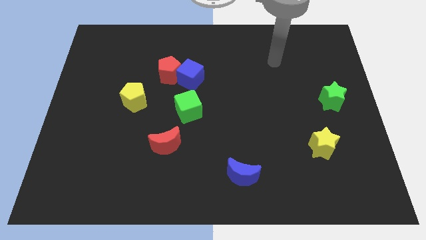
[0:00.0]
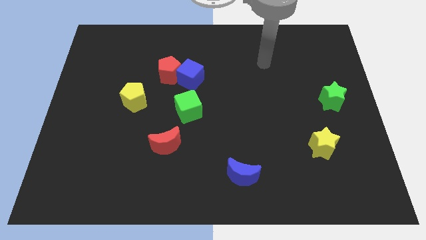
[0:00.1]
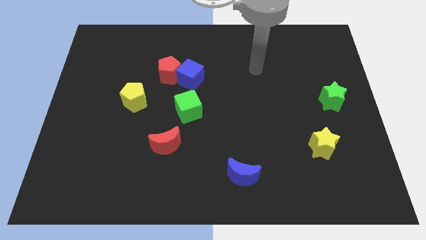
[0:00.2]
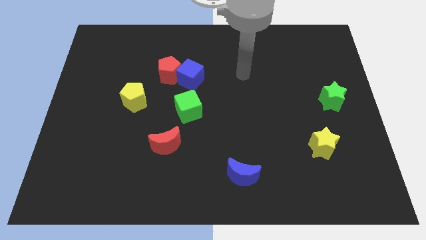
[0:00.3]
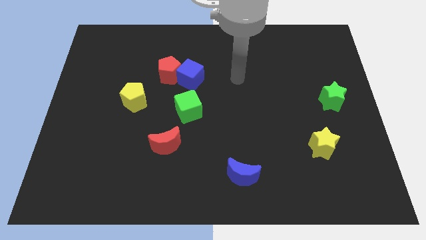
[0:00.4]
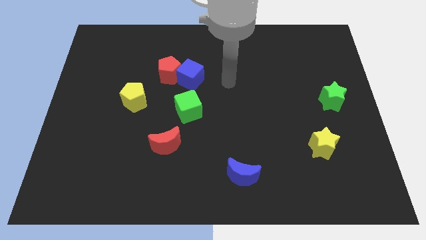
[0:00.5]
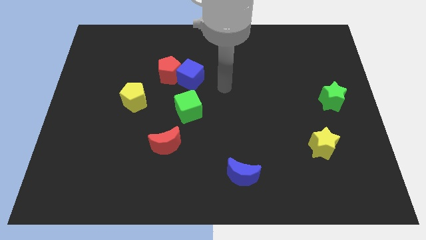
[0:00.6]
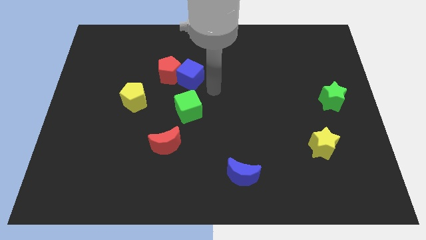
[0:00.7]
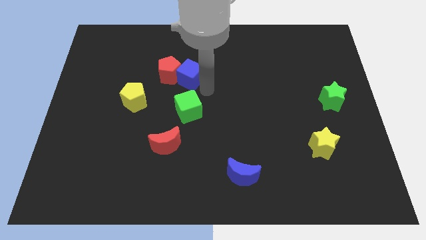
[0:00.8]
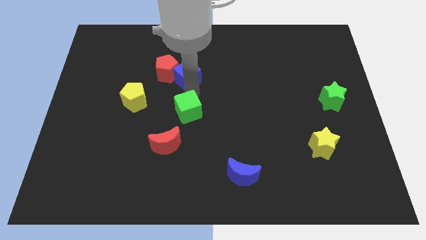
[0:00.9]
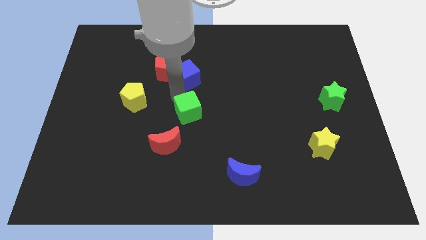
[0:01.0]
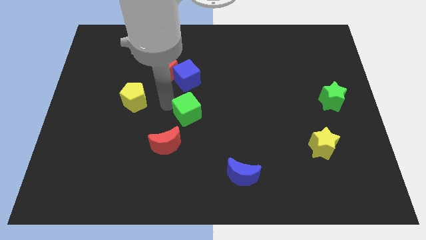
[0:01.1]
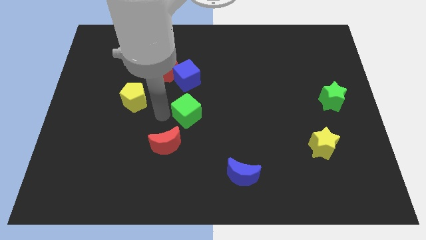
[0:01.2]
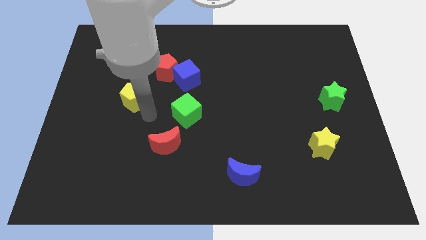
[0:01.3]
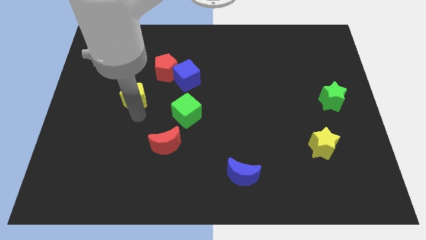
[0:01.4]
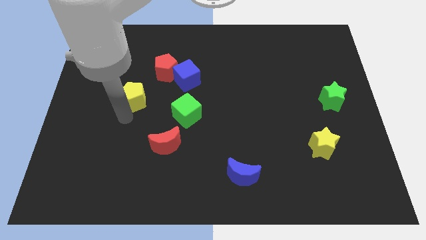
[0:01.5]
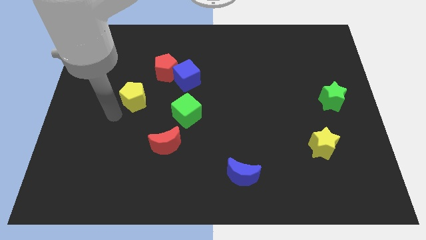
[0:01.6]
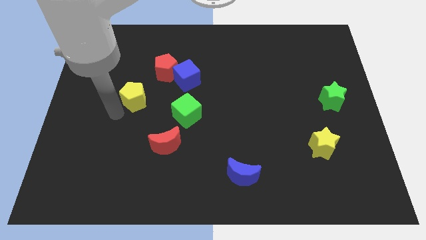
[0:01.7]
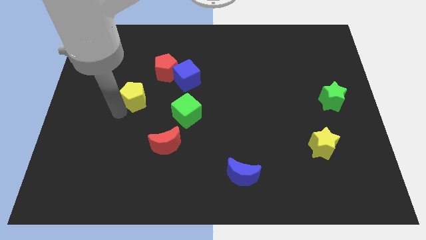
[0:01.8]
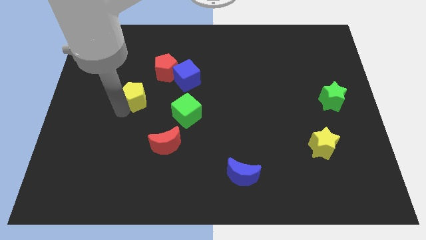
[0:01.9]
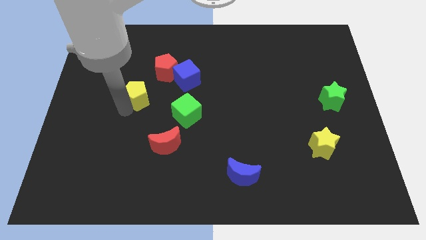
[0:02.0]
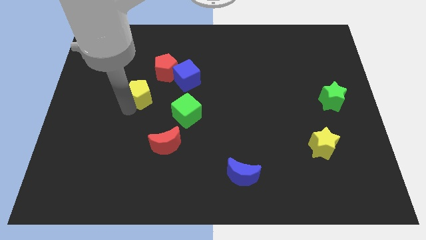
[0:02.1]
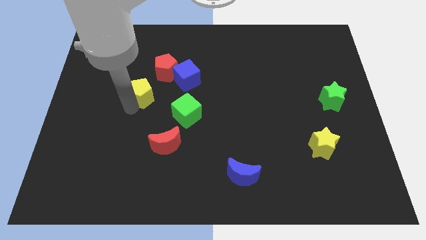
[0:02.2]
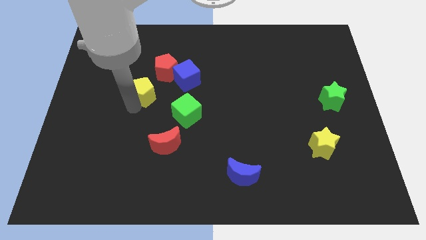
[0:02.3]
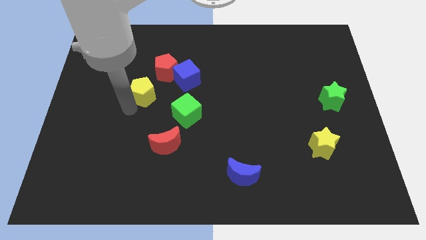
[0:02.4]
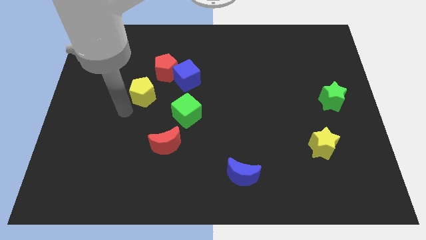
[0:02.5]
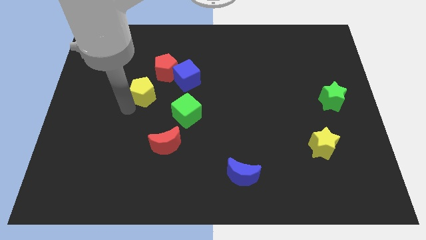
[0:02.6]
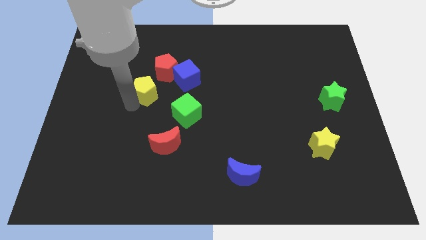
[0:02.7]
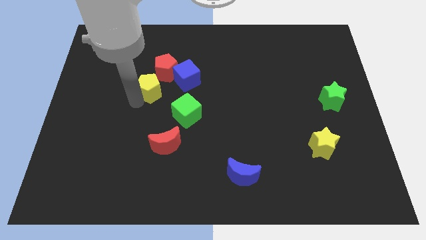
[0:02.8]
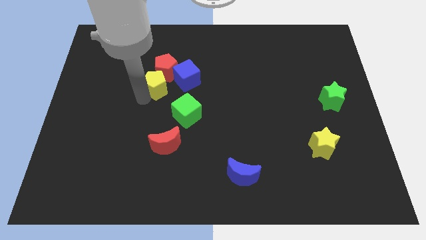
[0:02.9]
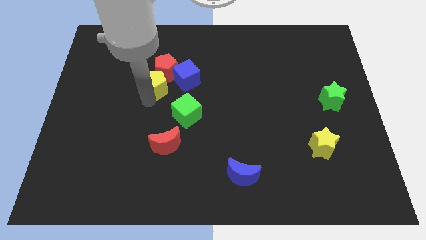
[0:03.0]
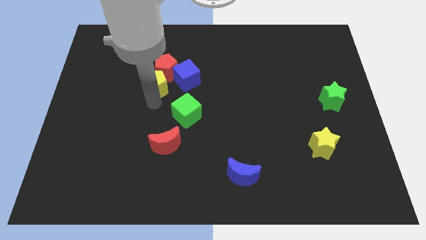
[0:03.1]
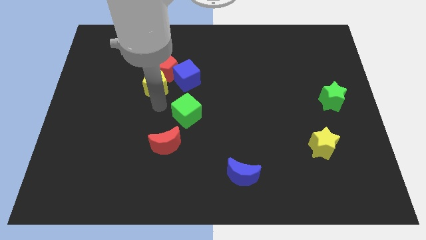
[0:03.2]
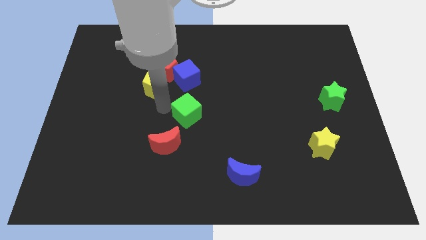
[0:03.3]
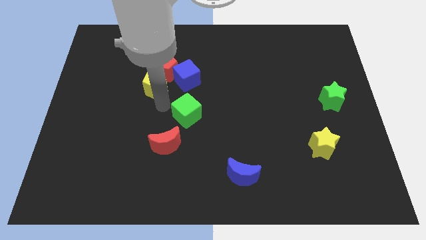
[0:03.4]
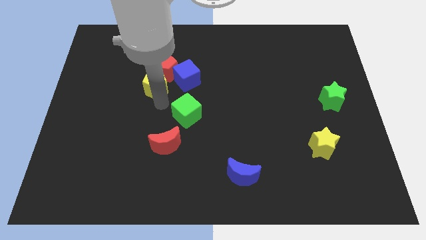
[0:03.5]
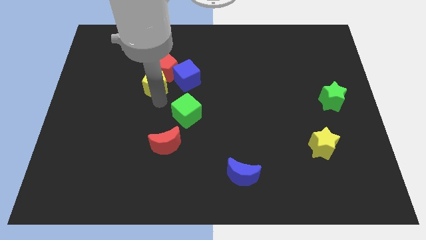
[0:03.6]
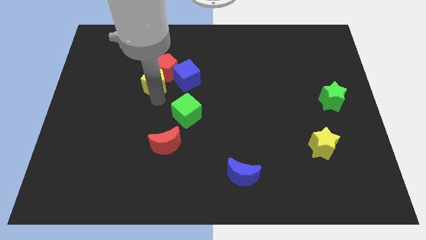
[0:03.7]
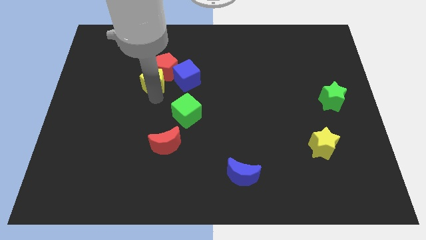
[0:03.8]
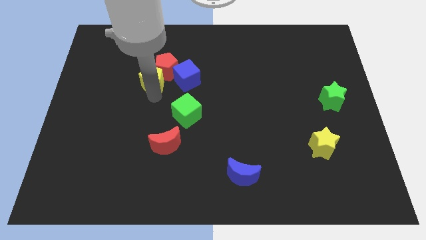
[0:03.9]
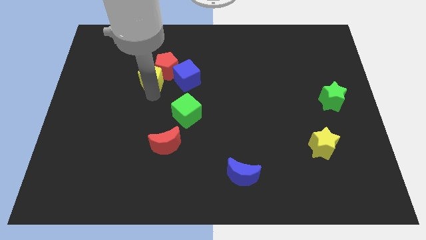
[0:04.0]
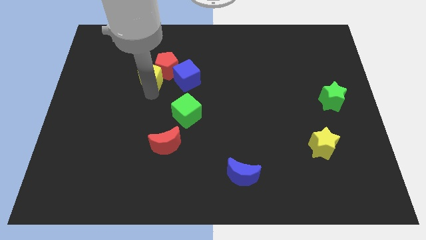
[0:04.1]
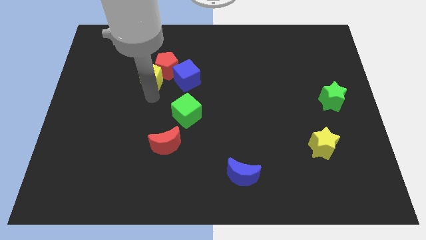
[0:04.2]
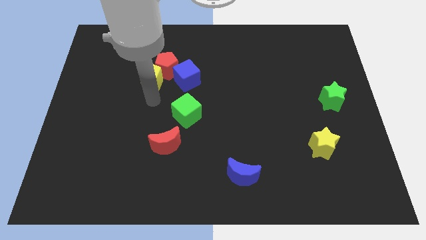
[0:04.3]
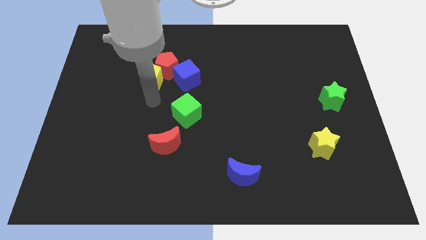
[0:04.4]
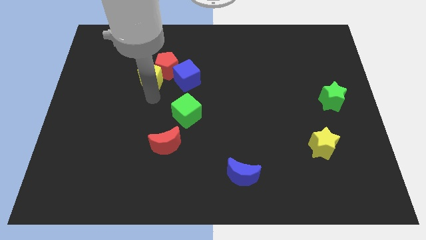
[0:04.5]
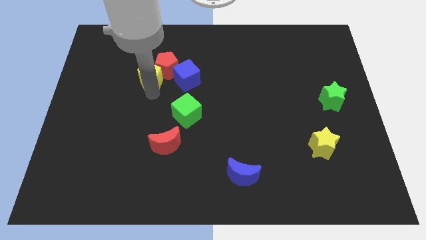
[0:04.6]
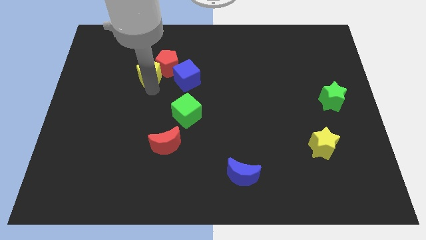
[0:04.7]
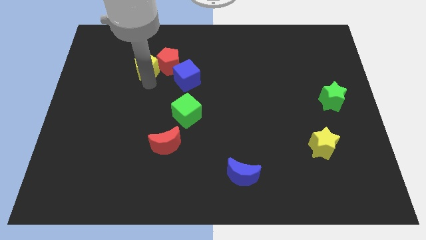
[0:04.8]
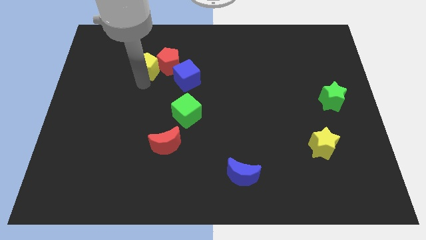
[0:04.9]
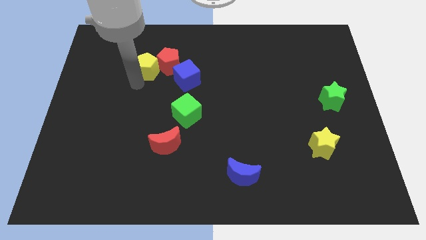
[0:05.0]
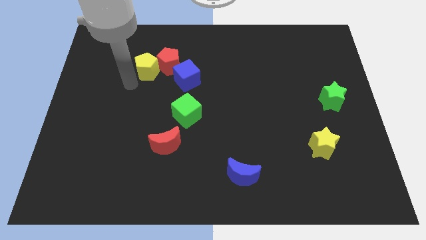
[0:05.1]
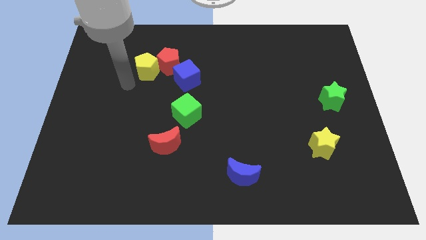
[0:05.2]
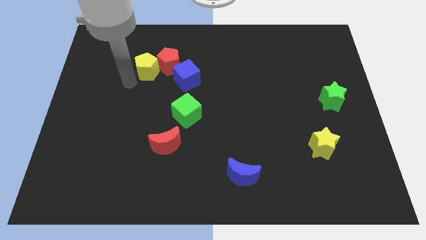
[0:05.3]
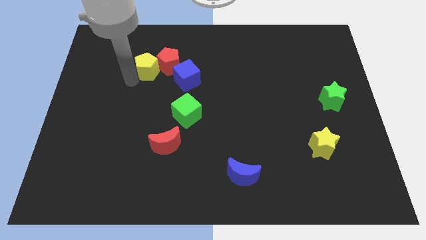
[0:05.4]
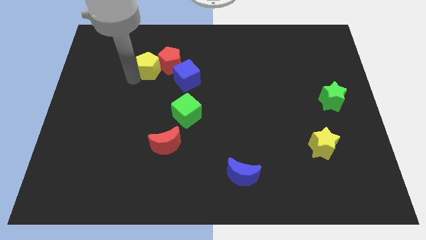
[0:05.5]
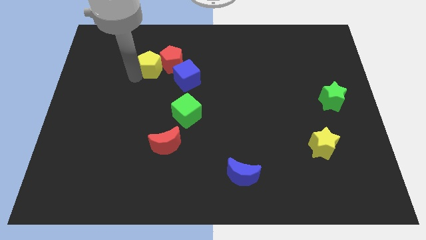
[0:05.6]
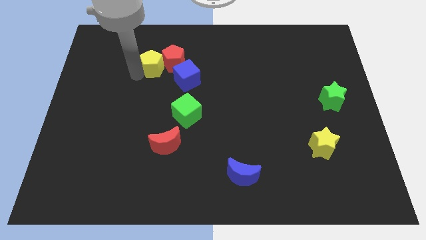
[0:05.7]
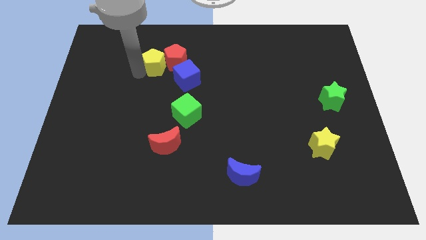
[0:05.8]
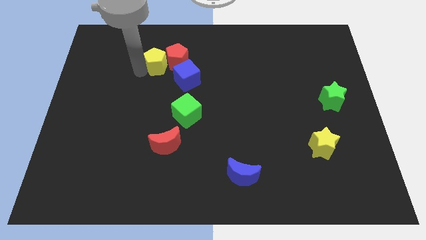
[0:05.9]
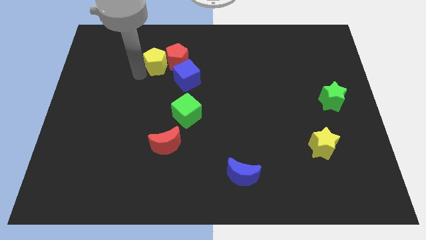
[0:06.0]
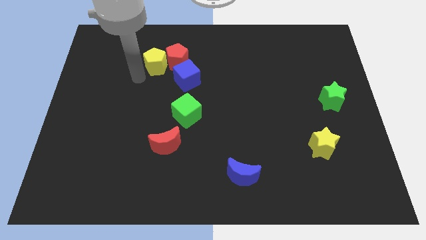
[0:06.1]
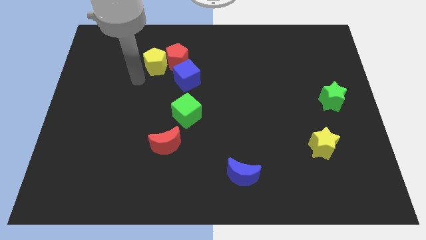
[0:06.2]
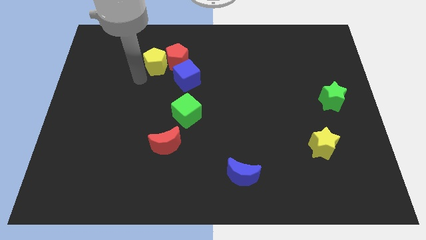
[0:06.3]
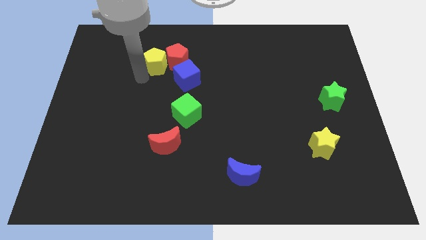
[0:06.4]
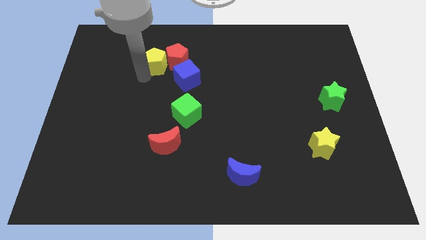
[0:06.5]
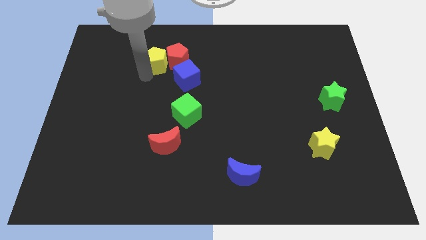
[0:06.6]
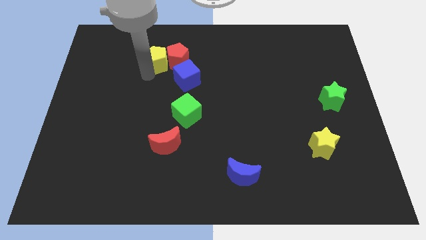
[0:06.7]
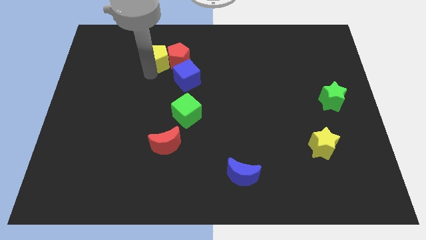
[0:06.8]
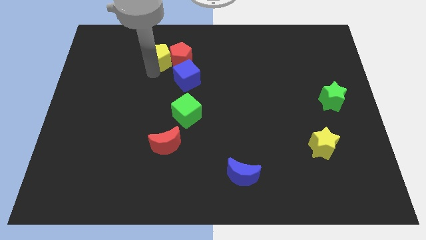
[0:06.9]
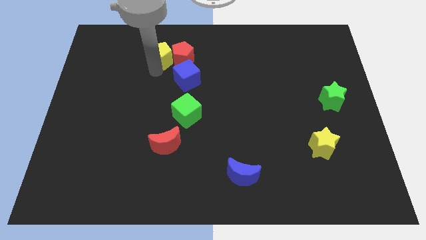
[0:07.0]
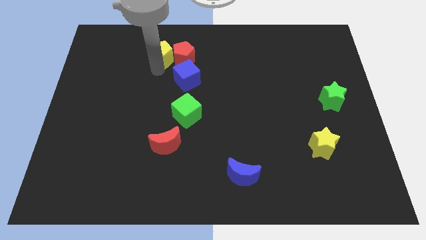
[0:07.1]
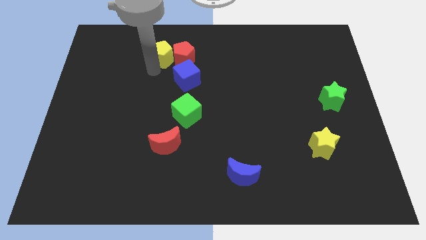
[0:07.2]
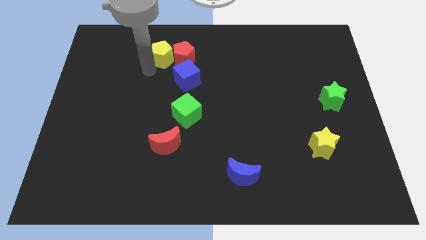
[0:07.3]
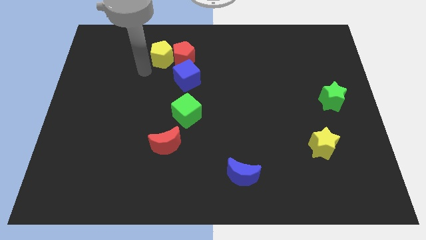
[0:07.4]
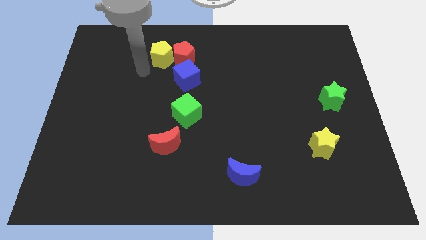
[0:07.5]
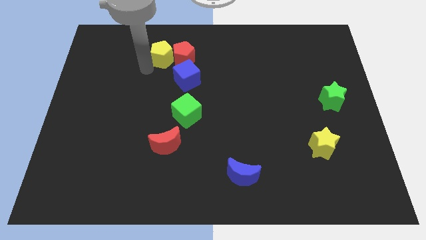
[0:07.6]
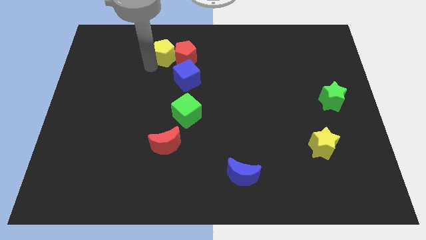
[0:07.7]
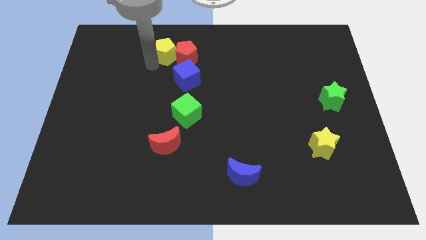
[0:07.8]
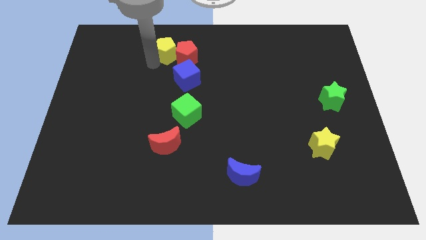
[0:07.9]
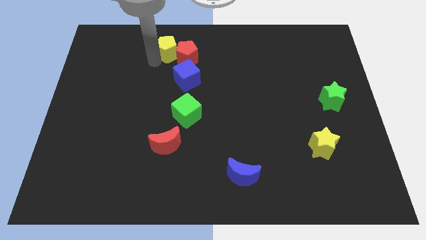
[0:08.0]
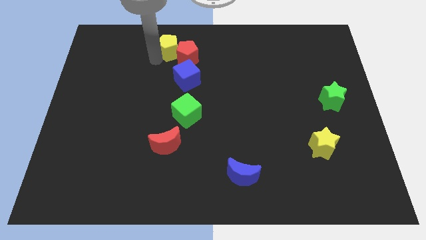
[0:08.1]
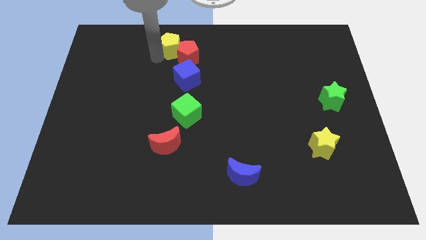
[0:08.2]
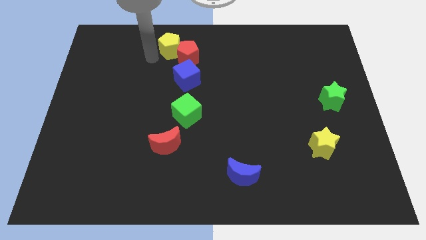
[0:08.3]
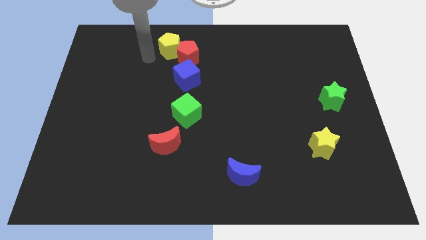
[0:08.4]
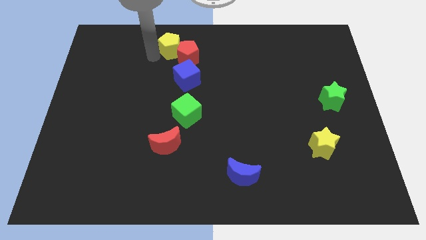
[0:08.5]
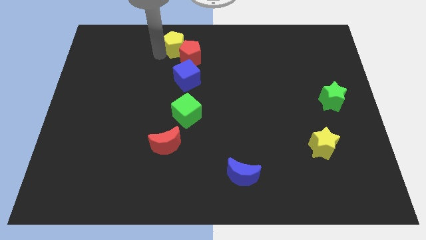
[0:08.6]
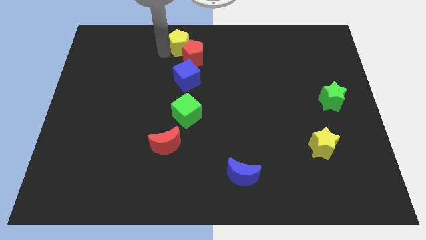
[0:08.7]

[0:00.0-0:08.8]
put the yellow pentagon to the top side
